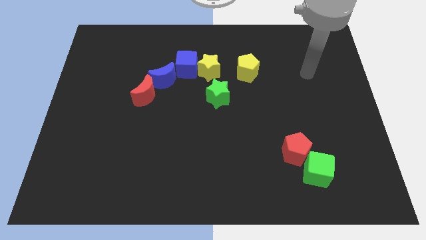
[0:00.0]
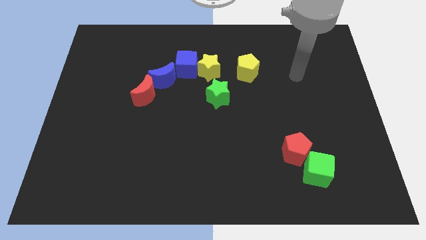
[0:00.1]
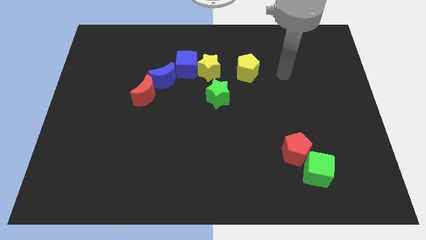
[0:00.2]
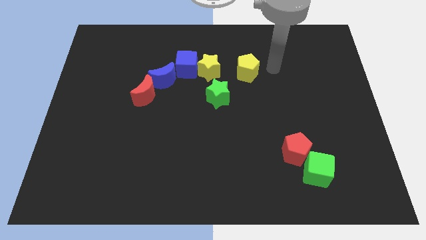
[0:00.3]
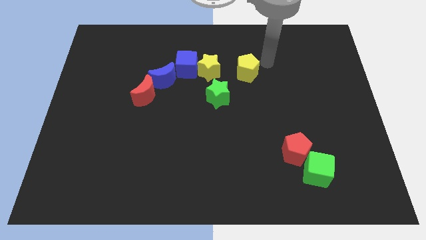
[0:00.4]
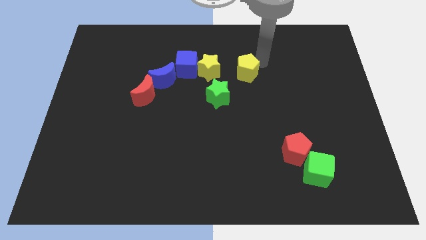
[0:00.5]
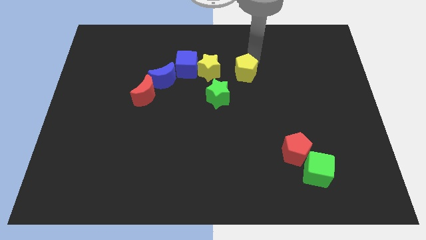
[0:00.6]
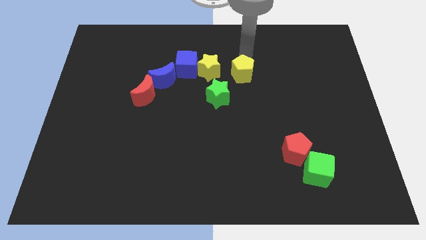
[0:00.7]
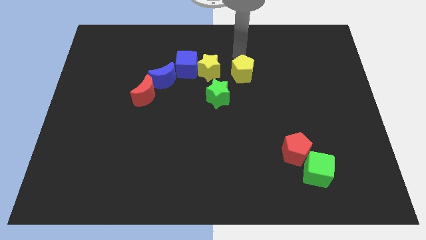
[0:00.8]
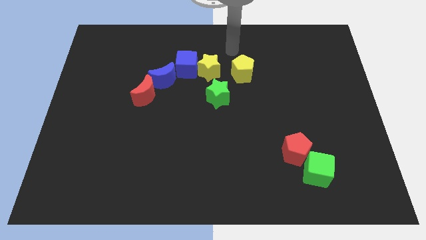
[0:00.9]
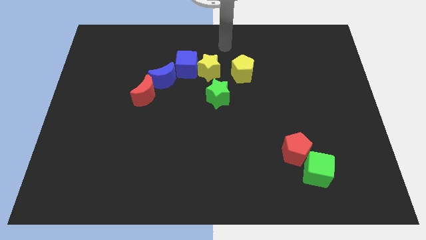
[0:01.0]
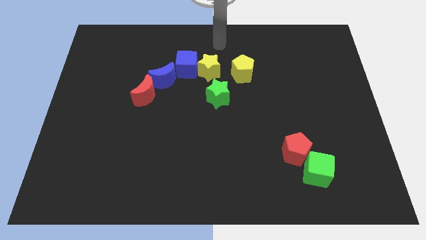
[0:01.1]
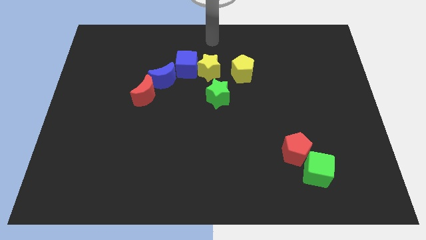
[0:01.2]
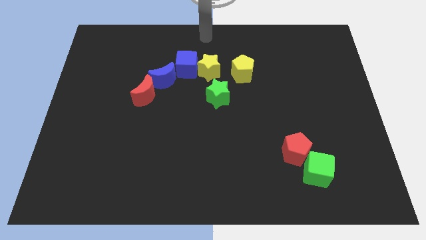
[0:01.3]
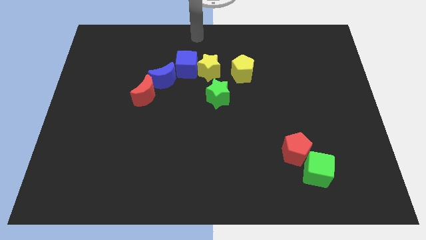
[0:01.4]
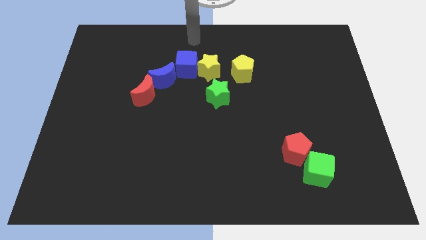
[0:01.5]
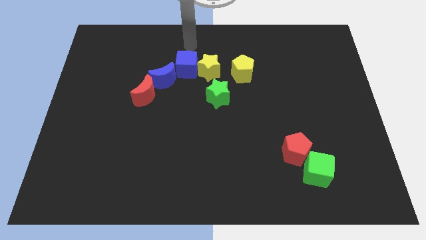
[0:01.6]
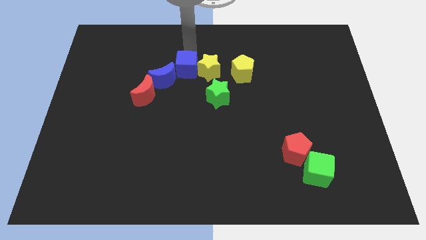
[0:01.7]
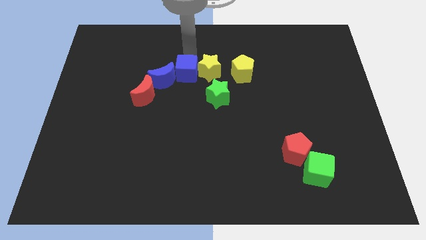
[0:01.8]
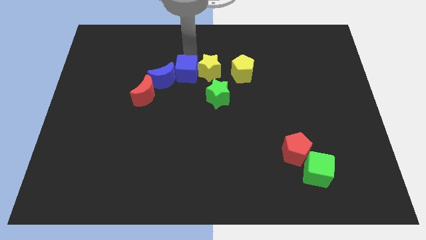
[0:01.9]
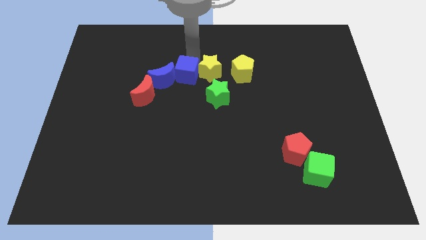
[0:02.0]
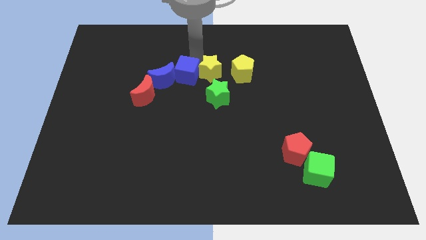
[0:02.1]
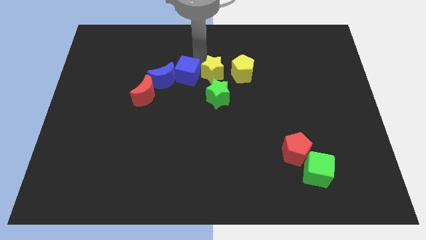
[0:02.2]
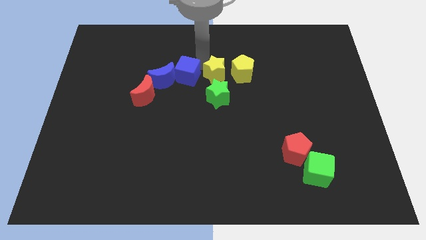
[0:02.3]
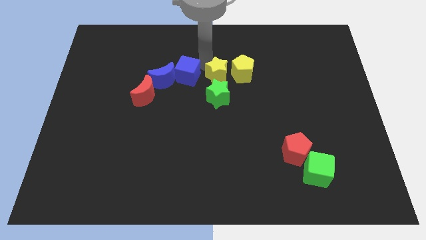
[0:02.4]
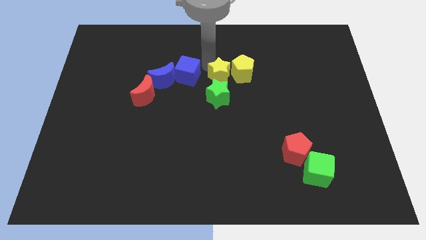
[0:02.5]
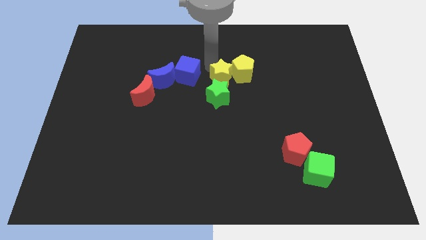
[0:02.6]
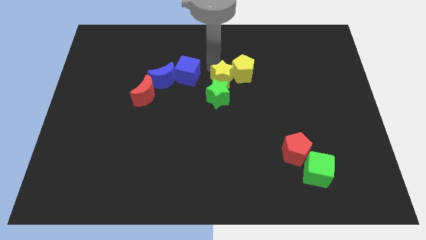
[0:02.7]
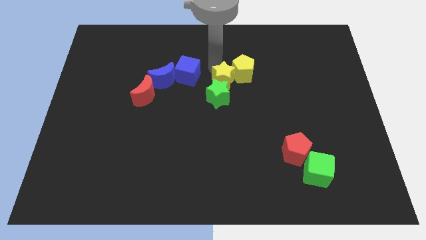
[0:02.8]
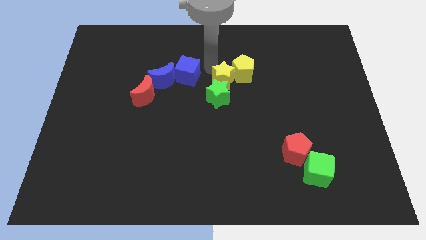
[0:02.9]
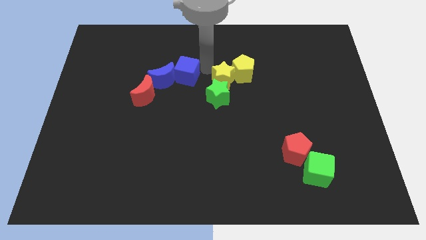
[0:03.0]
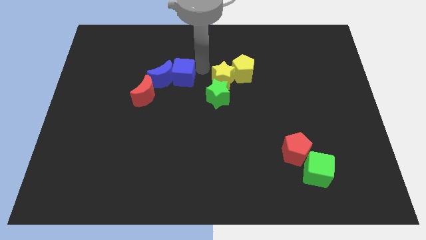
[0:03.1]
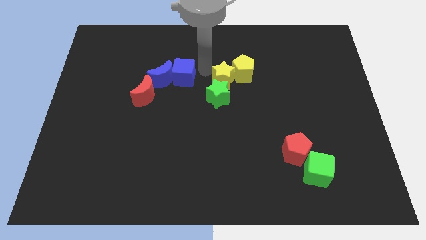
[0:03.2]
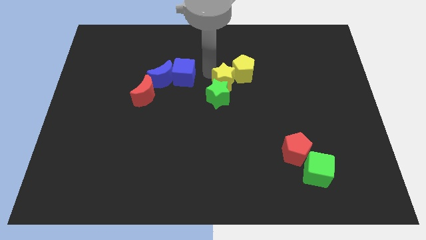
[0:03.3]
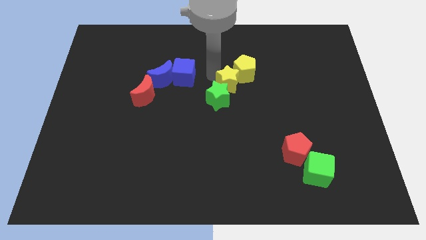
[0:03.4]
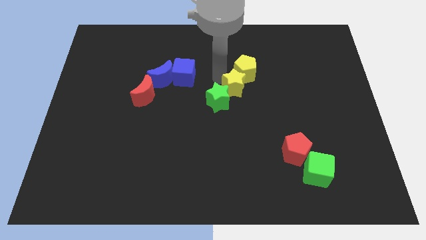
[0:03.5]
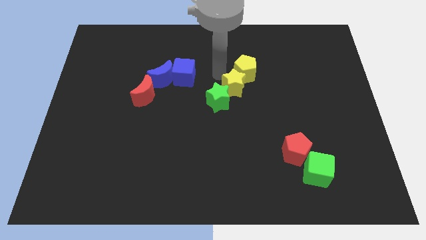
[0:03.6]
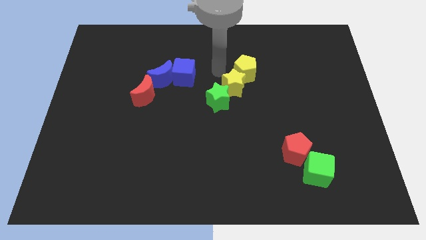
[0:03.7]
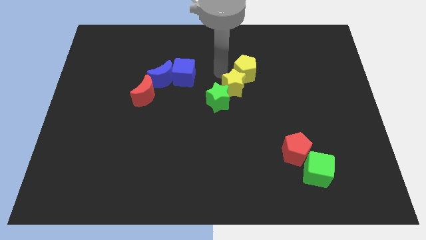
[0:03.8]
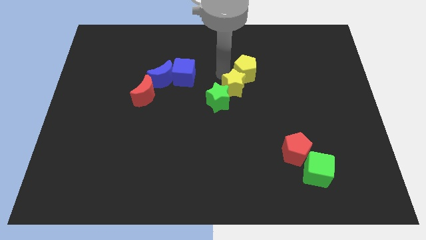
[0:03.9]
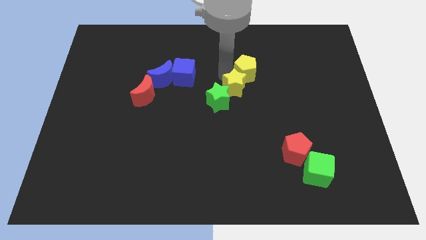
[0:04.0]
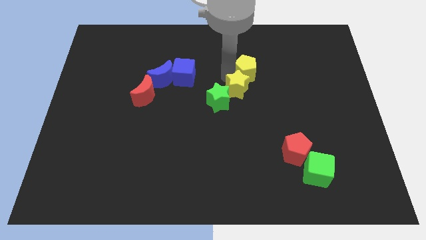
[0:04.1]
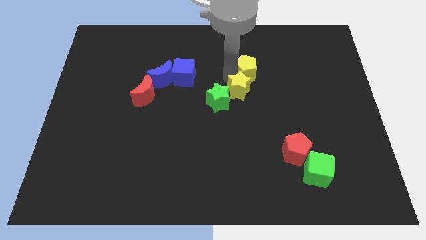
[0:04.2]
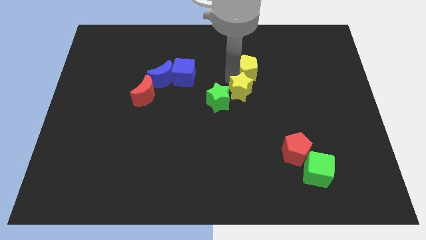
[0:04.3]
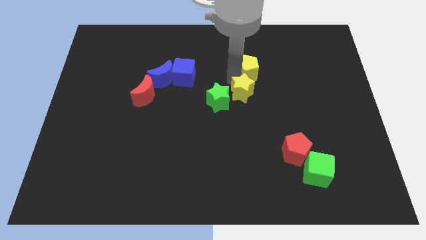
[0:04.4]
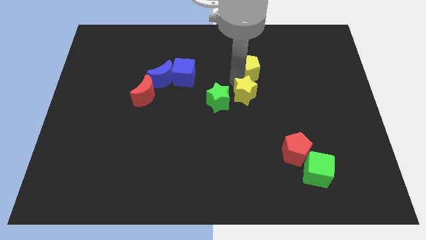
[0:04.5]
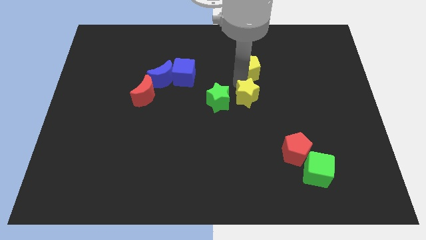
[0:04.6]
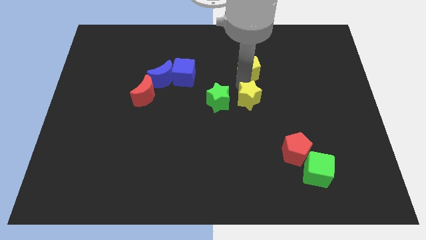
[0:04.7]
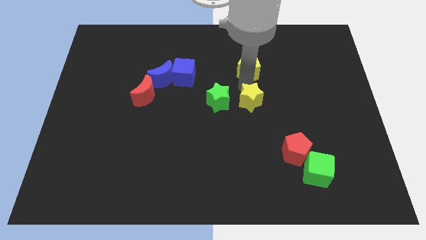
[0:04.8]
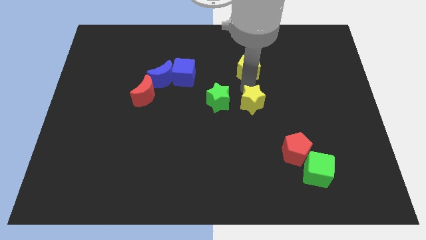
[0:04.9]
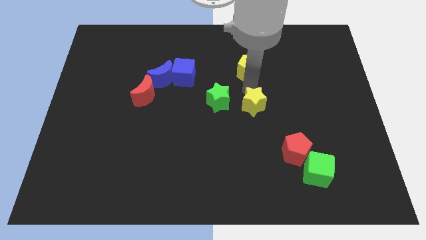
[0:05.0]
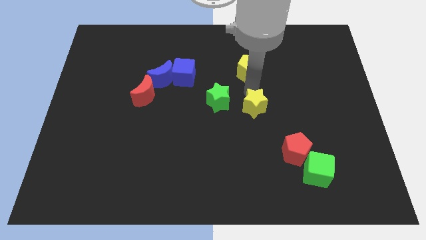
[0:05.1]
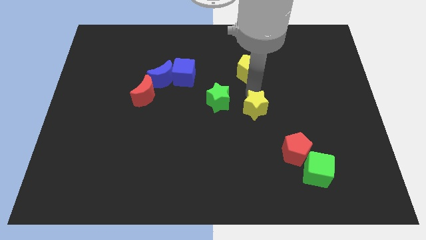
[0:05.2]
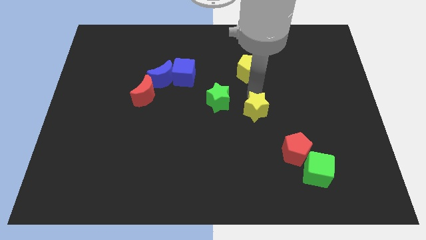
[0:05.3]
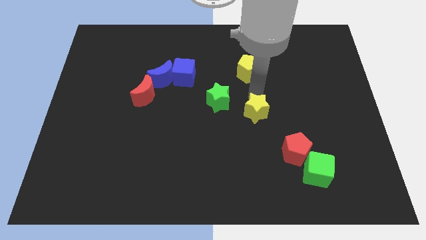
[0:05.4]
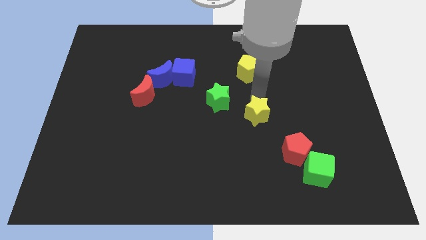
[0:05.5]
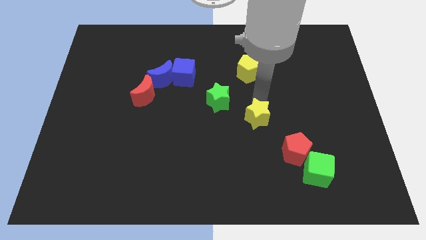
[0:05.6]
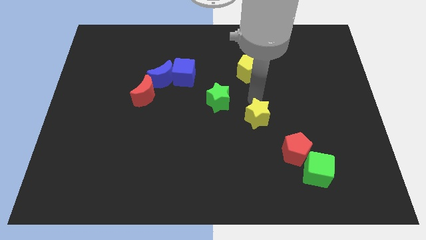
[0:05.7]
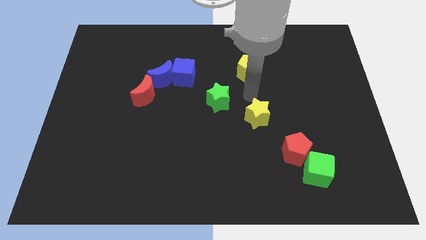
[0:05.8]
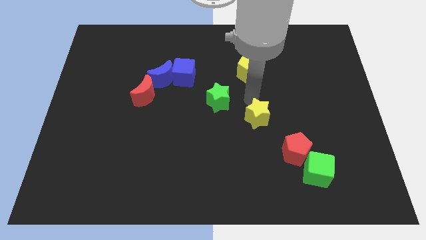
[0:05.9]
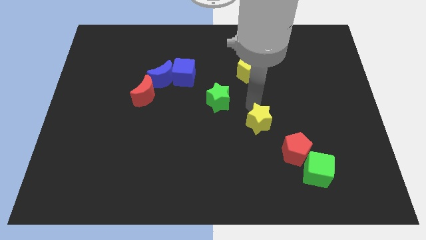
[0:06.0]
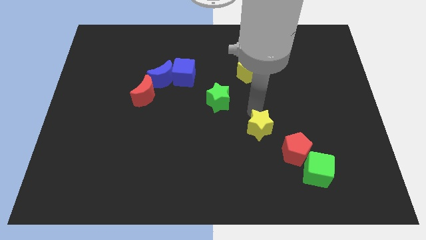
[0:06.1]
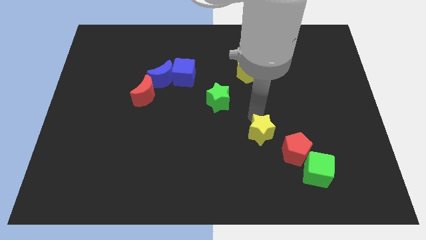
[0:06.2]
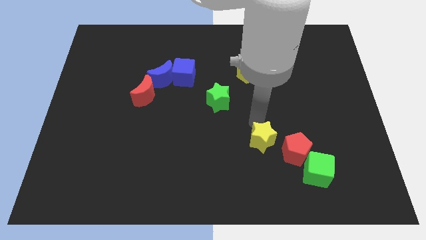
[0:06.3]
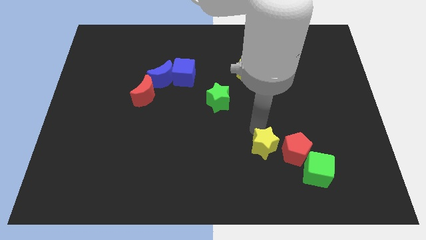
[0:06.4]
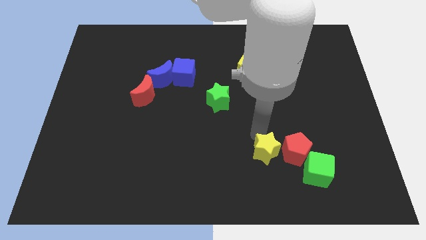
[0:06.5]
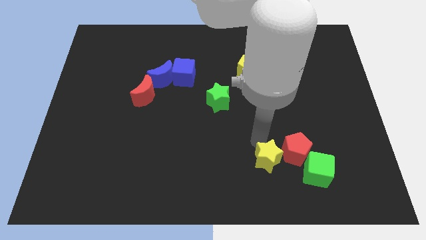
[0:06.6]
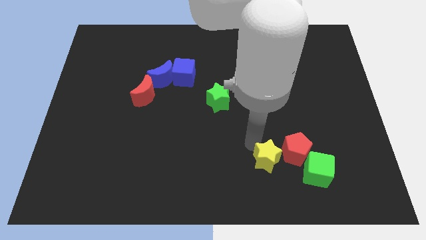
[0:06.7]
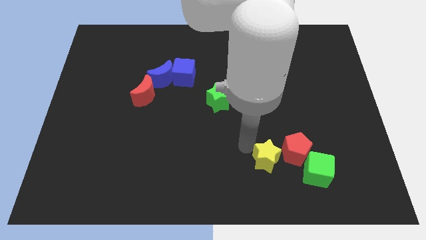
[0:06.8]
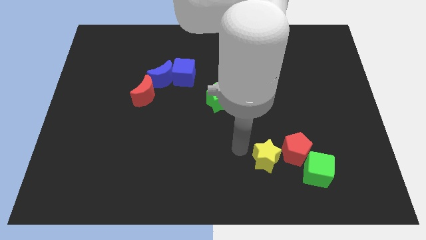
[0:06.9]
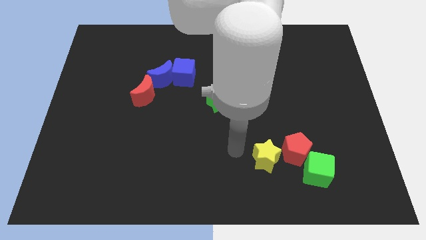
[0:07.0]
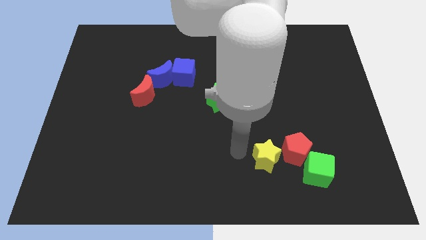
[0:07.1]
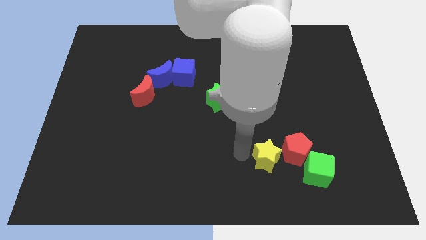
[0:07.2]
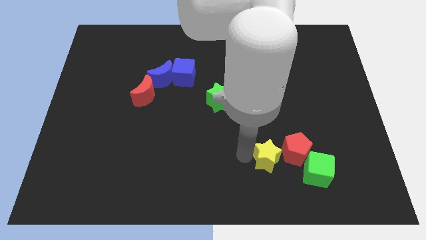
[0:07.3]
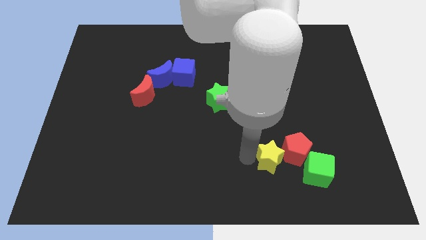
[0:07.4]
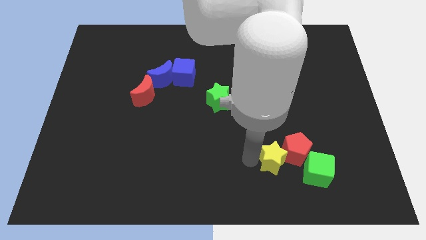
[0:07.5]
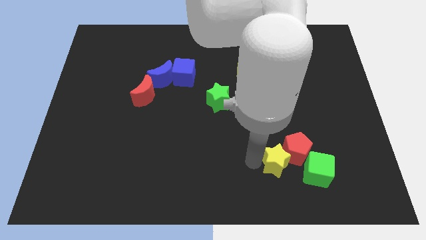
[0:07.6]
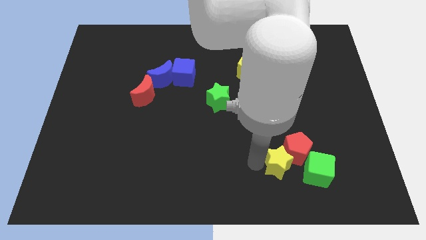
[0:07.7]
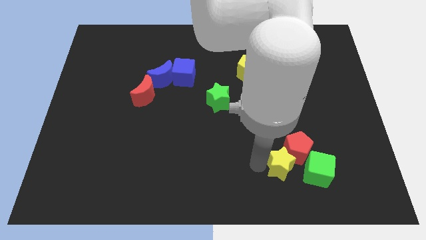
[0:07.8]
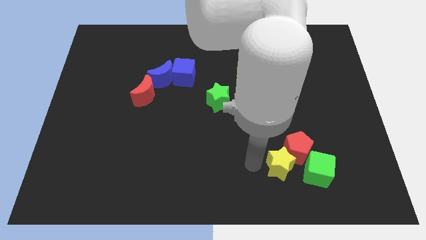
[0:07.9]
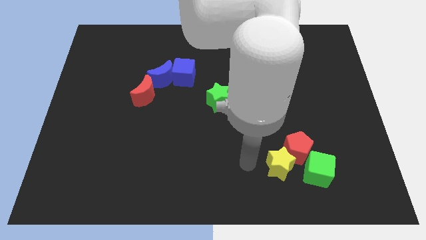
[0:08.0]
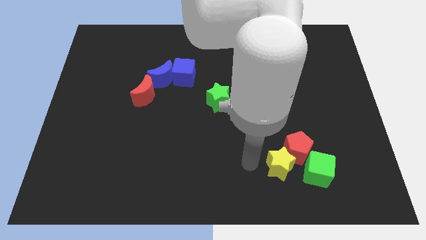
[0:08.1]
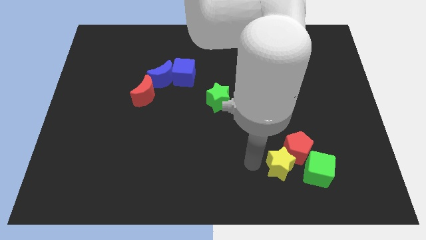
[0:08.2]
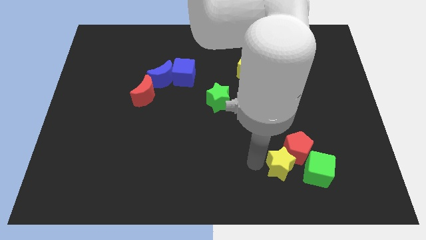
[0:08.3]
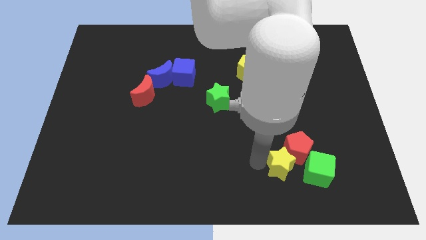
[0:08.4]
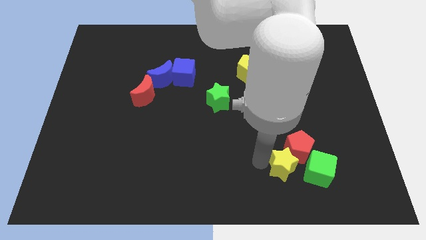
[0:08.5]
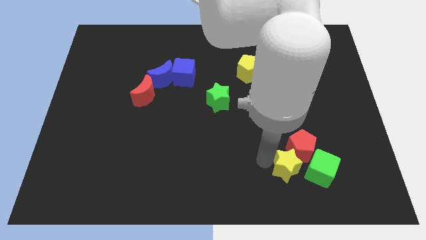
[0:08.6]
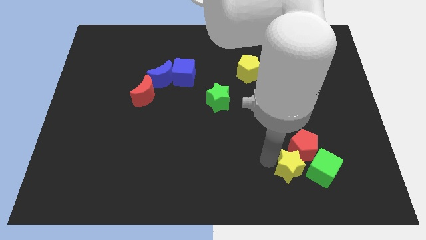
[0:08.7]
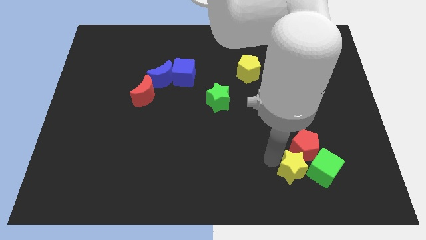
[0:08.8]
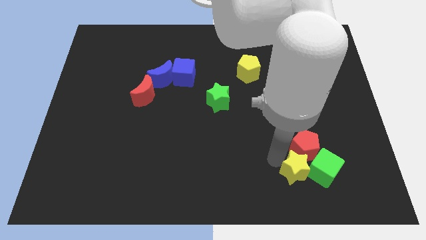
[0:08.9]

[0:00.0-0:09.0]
move the yellow star close to the green cube
